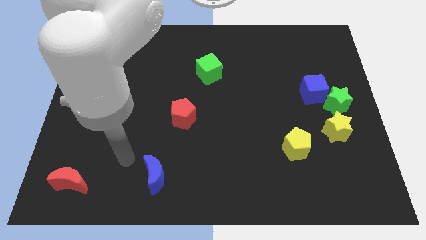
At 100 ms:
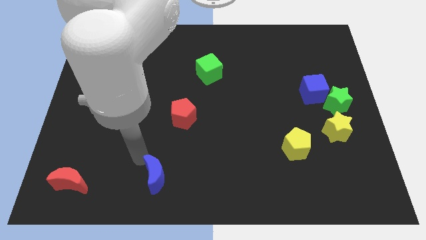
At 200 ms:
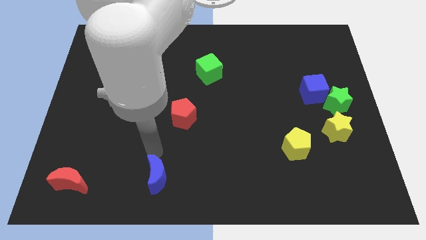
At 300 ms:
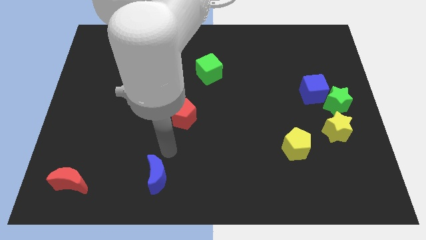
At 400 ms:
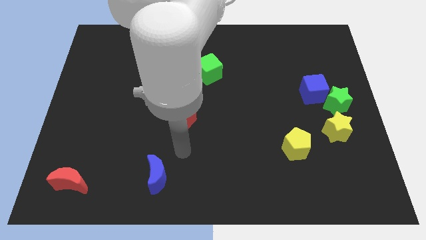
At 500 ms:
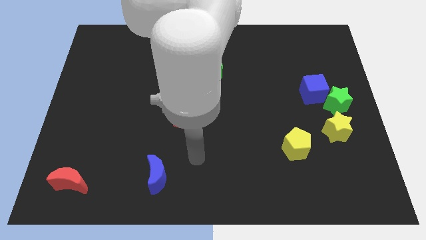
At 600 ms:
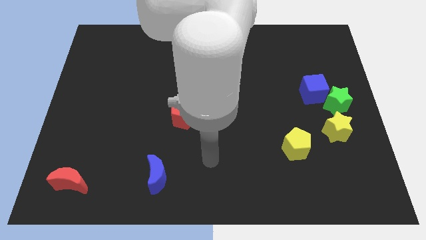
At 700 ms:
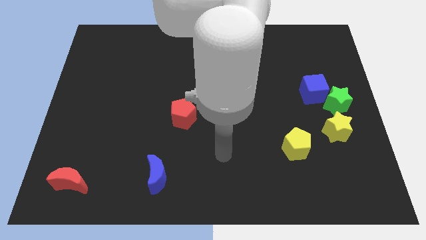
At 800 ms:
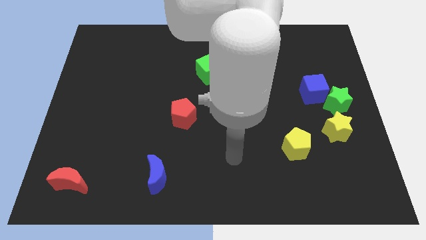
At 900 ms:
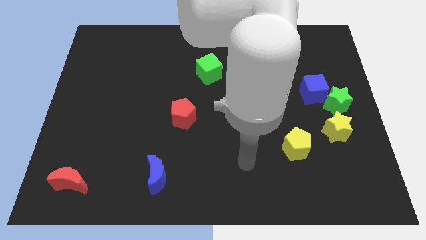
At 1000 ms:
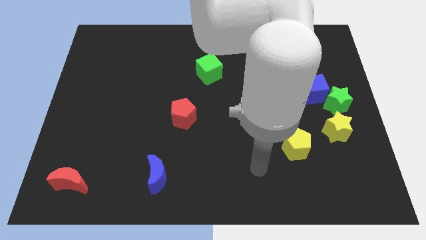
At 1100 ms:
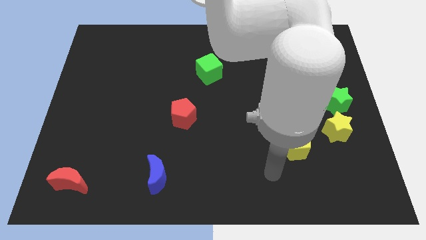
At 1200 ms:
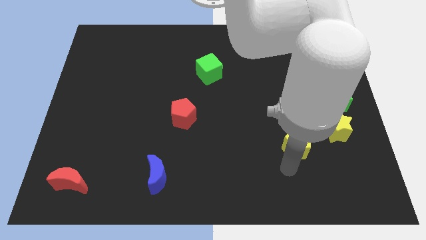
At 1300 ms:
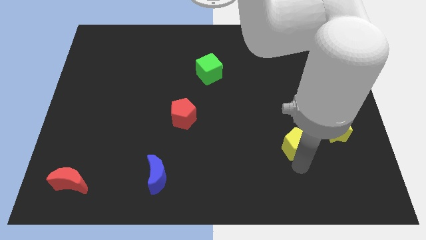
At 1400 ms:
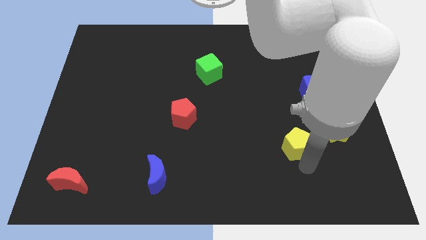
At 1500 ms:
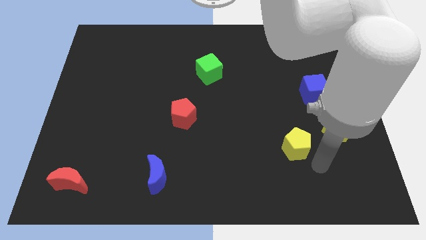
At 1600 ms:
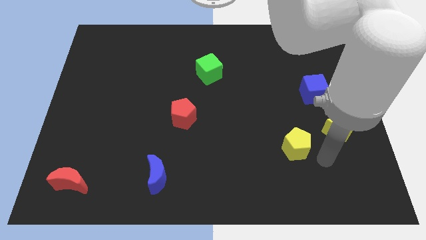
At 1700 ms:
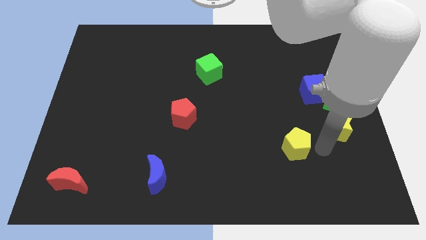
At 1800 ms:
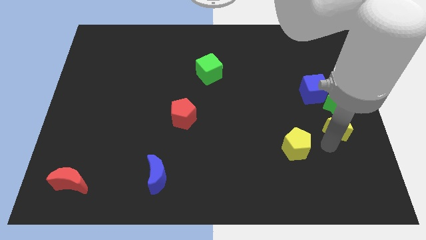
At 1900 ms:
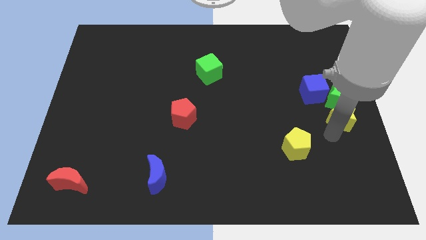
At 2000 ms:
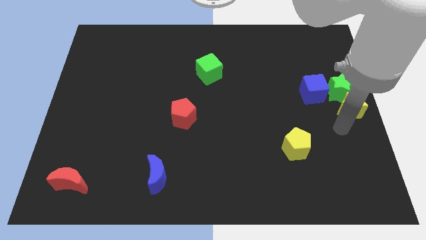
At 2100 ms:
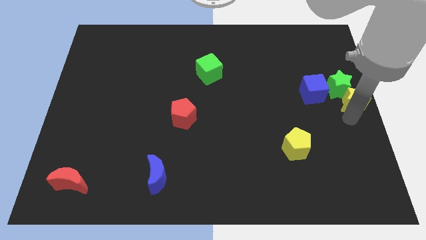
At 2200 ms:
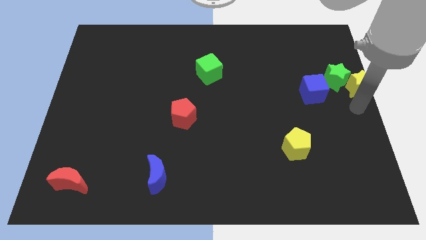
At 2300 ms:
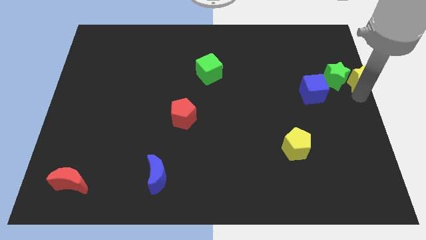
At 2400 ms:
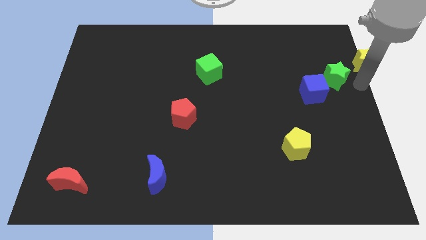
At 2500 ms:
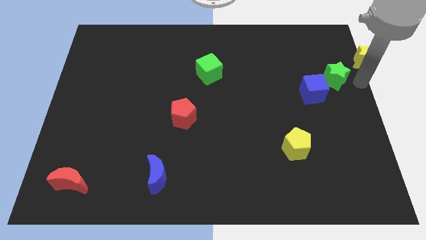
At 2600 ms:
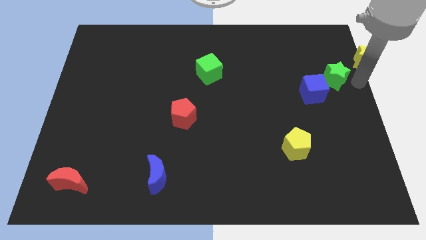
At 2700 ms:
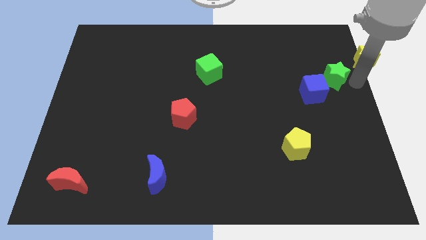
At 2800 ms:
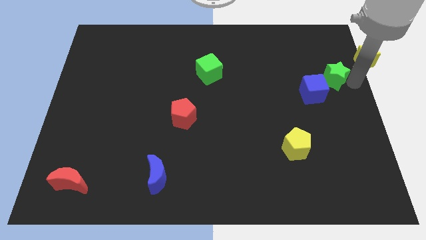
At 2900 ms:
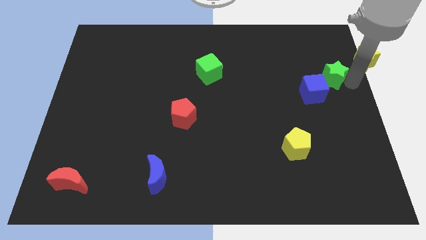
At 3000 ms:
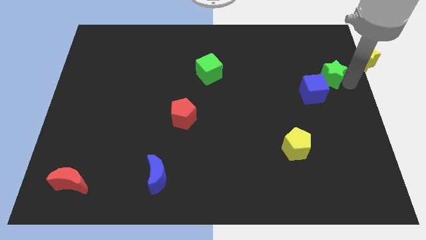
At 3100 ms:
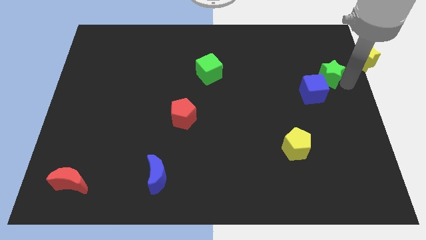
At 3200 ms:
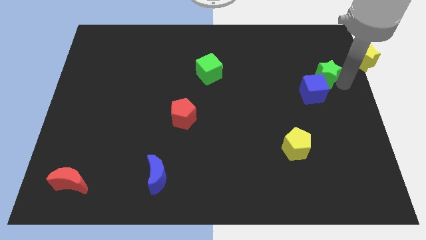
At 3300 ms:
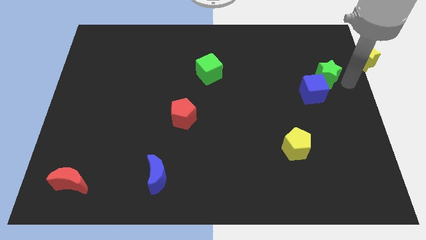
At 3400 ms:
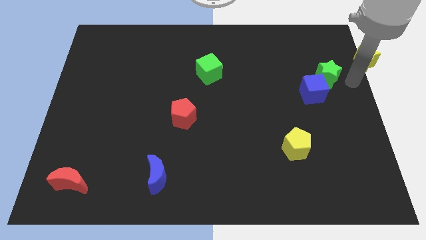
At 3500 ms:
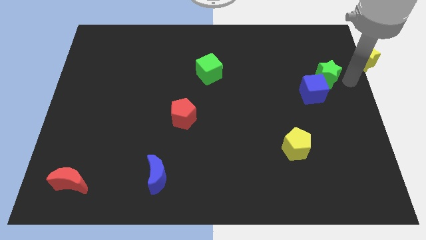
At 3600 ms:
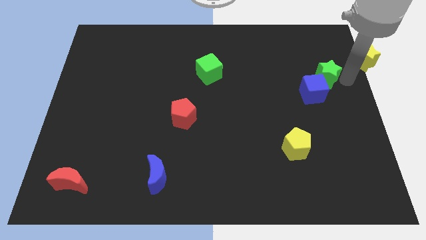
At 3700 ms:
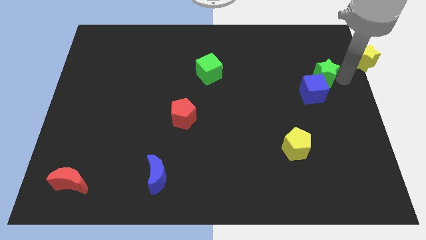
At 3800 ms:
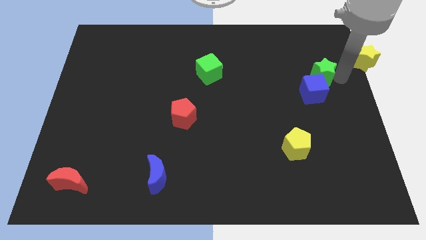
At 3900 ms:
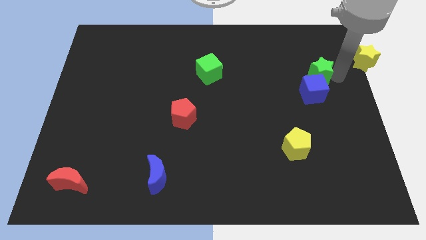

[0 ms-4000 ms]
slightly move the green star up and left

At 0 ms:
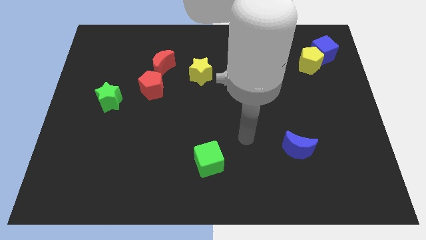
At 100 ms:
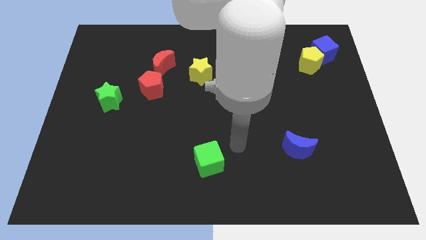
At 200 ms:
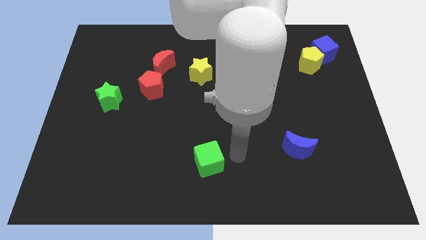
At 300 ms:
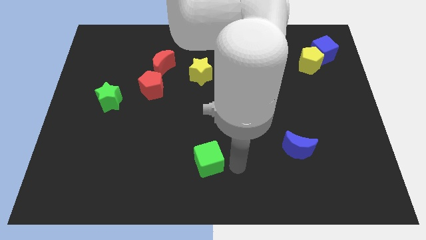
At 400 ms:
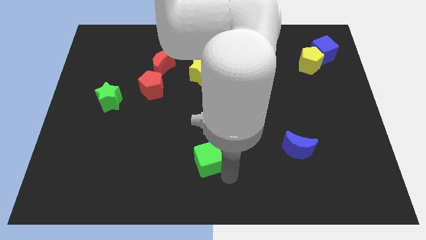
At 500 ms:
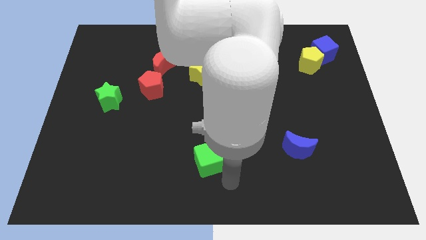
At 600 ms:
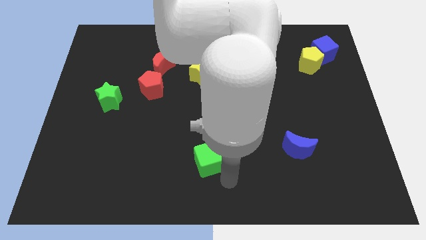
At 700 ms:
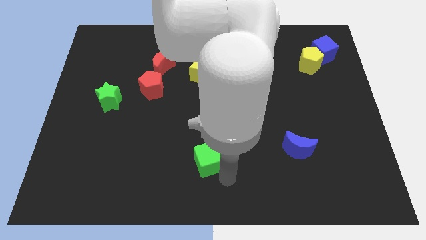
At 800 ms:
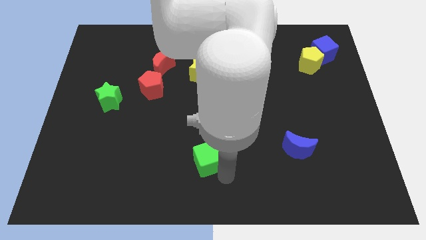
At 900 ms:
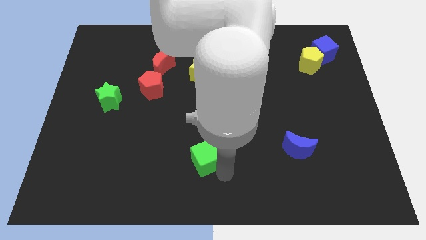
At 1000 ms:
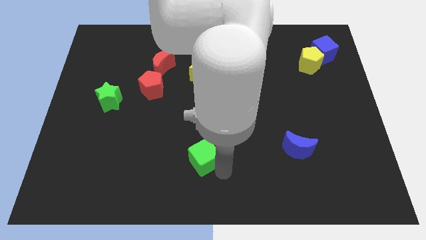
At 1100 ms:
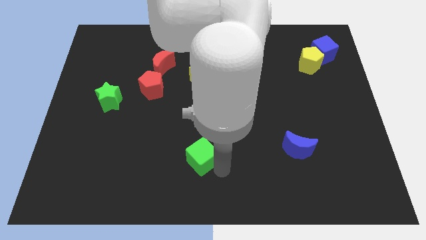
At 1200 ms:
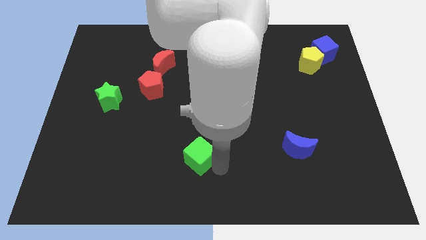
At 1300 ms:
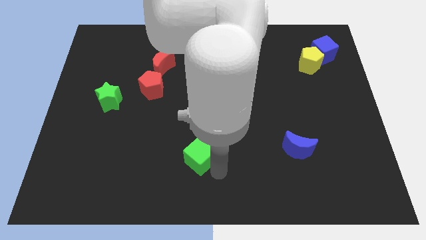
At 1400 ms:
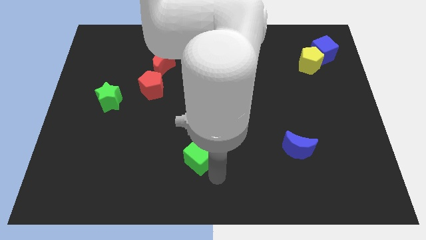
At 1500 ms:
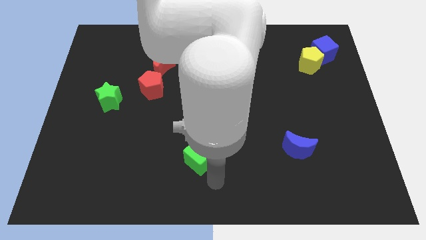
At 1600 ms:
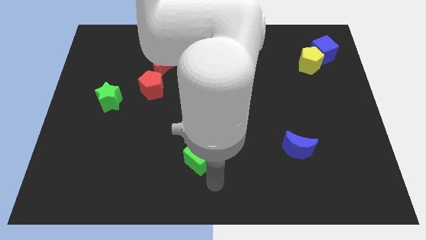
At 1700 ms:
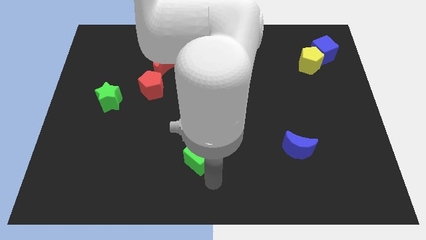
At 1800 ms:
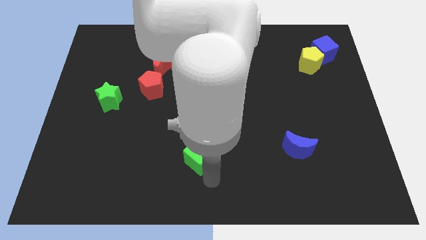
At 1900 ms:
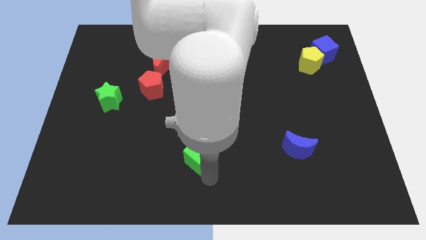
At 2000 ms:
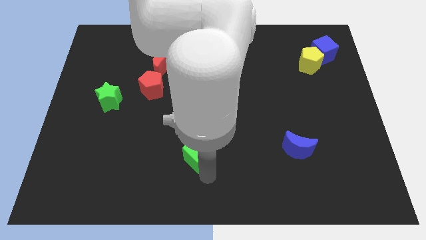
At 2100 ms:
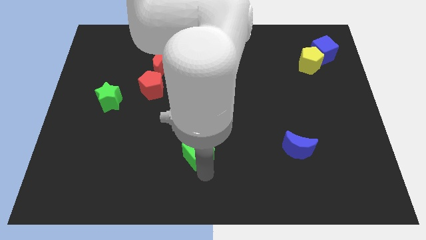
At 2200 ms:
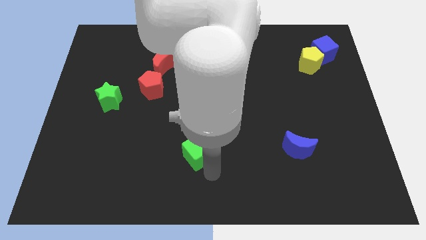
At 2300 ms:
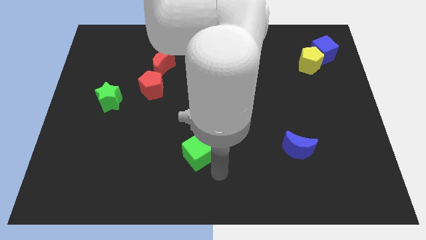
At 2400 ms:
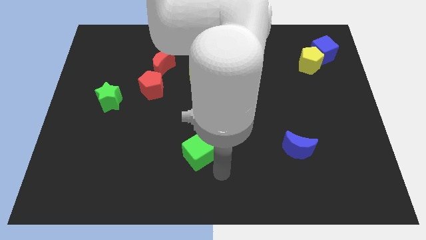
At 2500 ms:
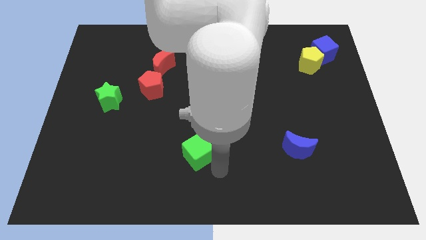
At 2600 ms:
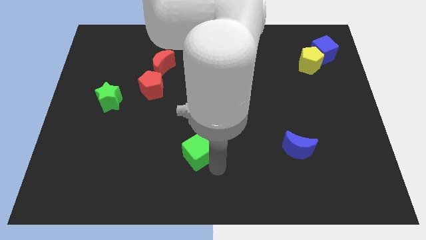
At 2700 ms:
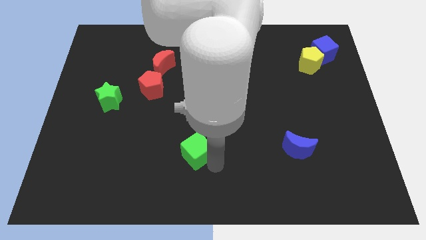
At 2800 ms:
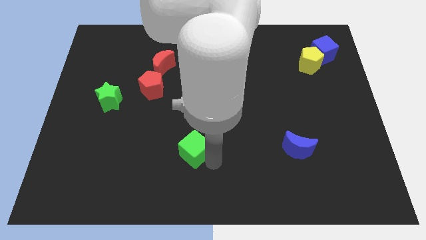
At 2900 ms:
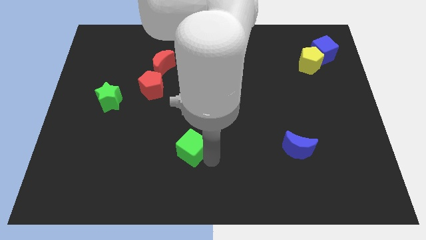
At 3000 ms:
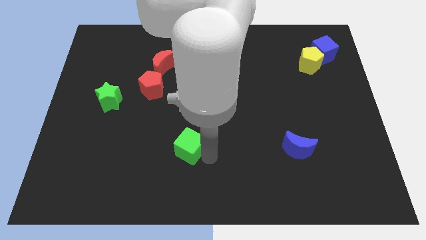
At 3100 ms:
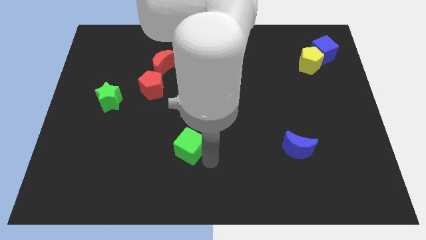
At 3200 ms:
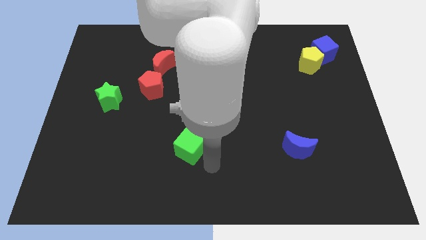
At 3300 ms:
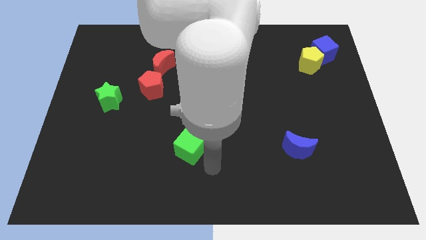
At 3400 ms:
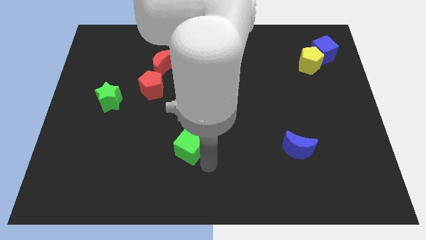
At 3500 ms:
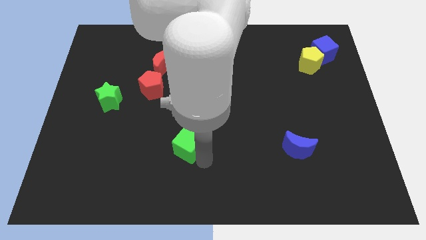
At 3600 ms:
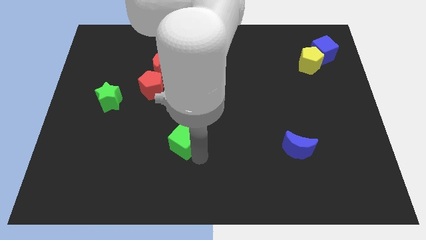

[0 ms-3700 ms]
move the green cube a little bit upwards and to the left

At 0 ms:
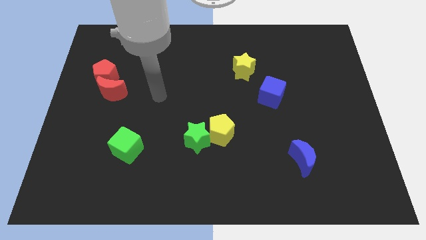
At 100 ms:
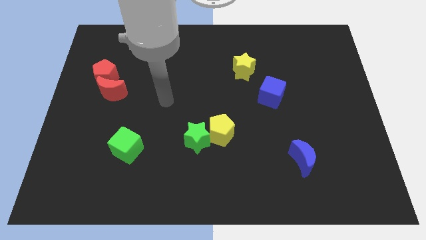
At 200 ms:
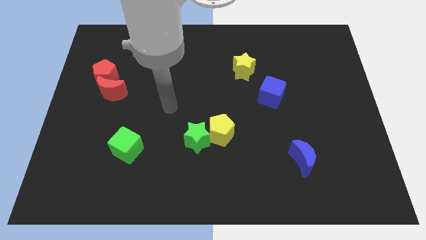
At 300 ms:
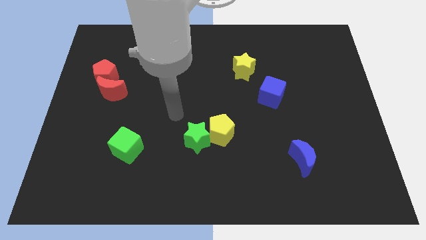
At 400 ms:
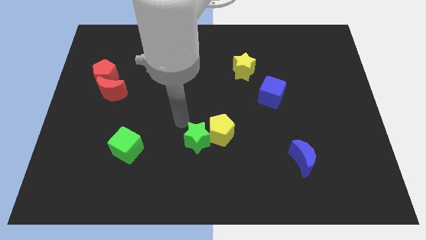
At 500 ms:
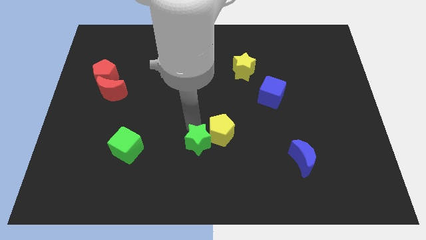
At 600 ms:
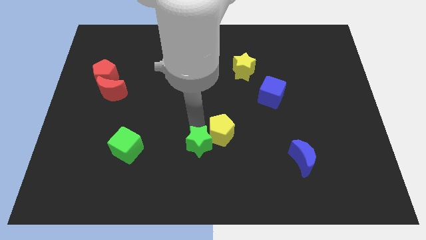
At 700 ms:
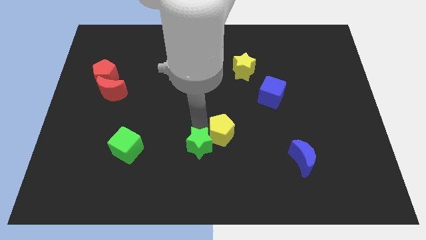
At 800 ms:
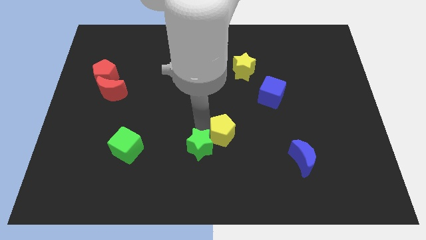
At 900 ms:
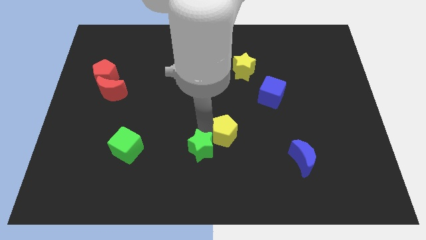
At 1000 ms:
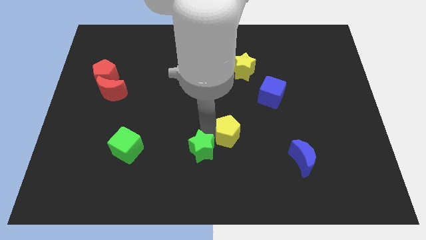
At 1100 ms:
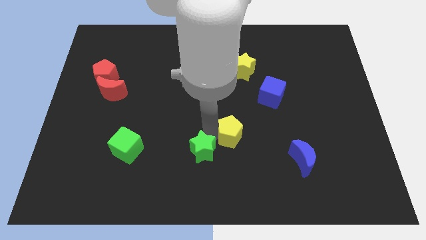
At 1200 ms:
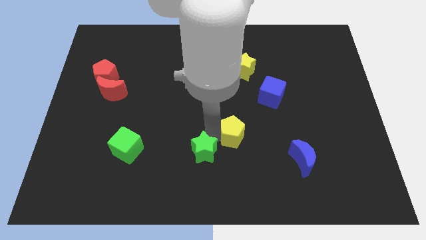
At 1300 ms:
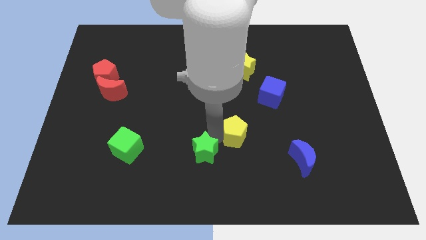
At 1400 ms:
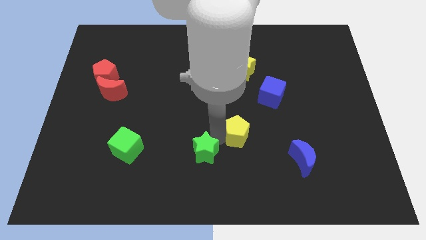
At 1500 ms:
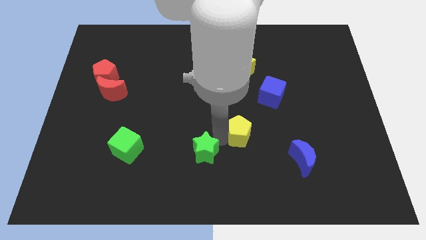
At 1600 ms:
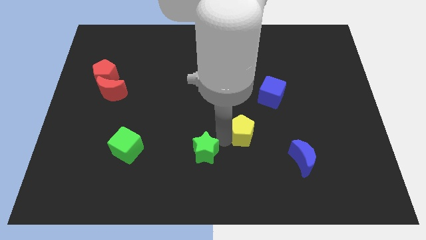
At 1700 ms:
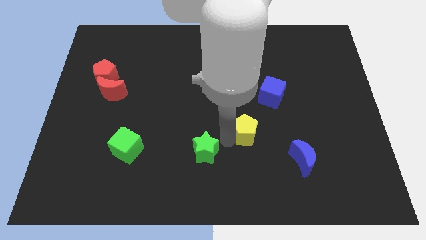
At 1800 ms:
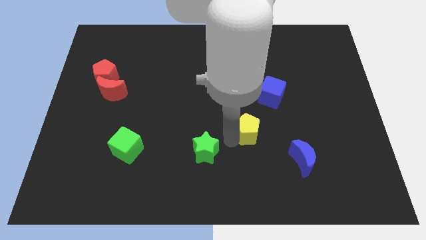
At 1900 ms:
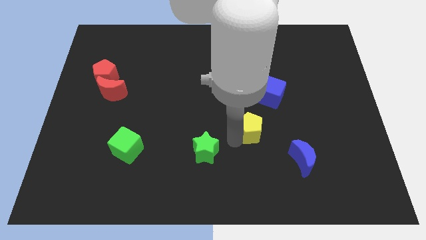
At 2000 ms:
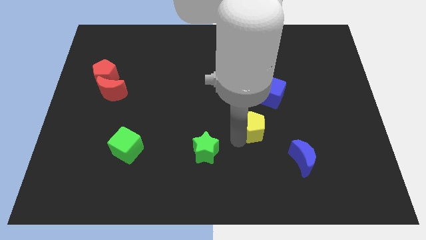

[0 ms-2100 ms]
slide the yellow pentagon to the right slightly
